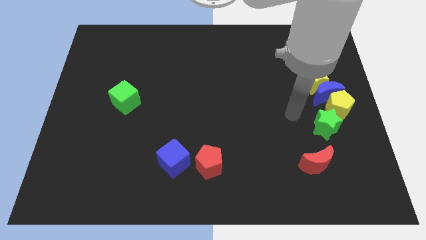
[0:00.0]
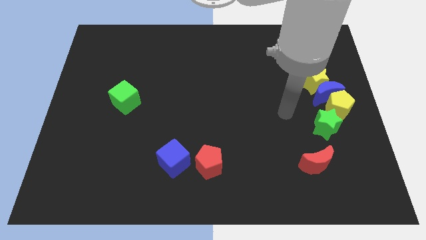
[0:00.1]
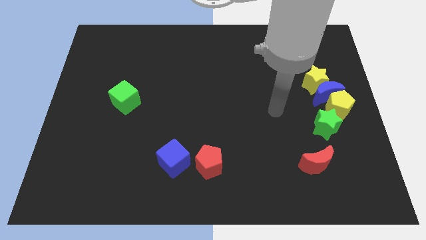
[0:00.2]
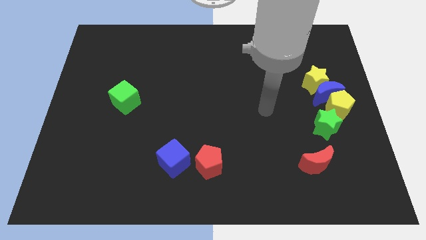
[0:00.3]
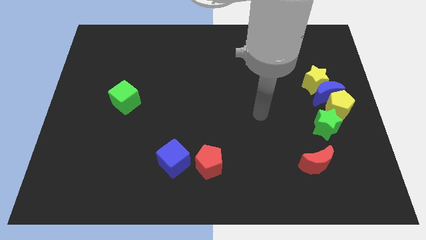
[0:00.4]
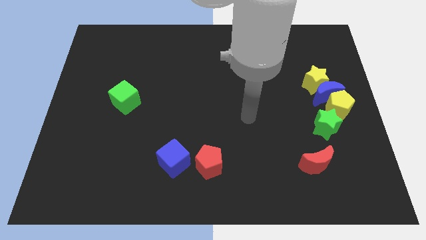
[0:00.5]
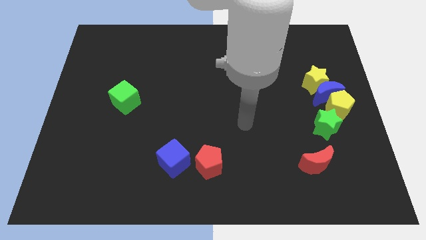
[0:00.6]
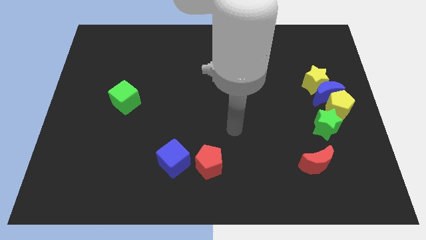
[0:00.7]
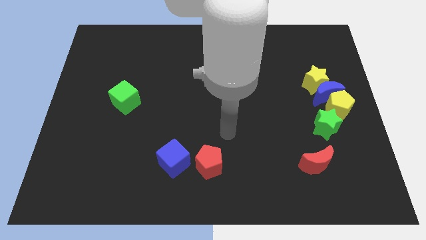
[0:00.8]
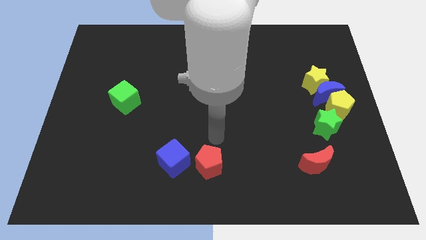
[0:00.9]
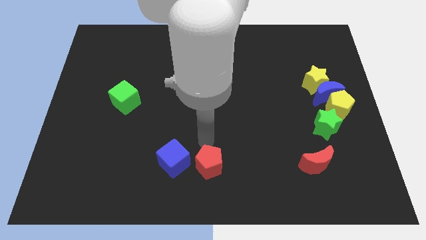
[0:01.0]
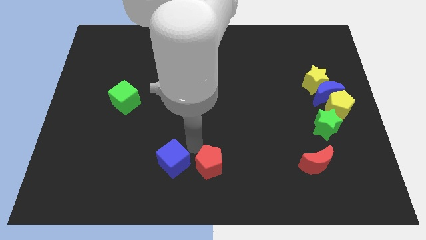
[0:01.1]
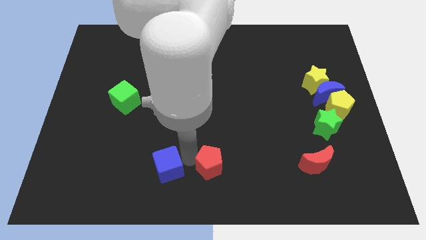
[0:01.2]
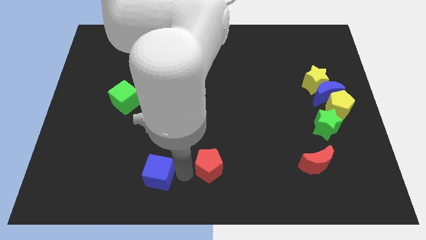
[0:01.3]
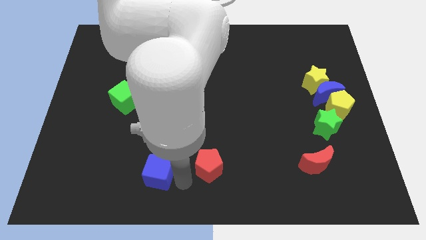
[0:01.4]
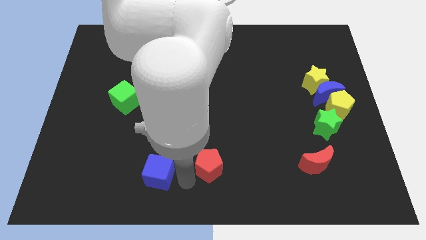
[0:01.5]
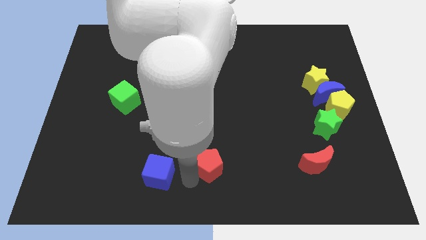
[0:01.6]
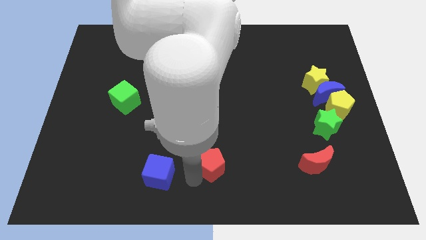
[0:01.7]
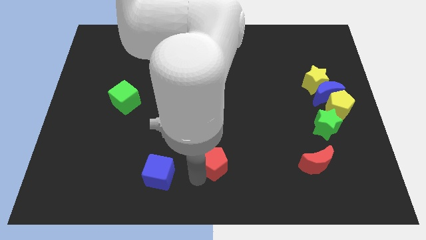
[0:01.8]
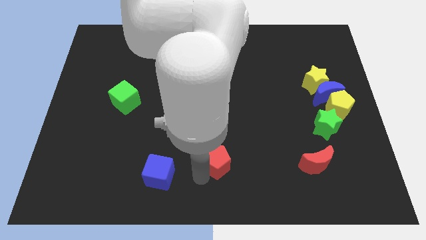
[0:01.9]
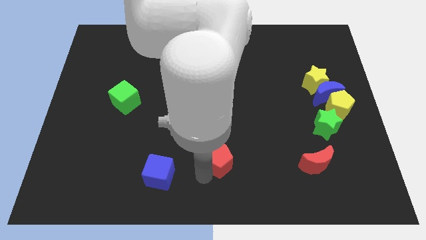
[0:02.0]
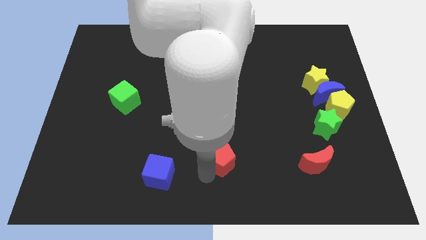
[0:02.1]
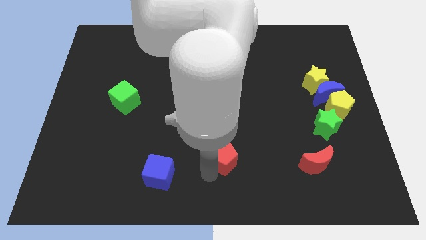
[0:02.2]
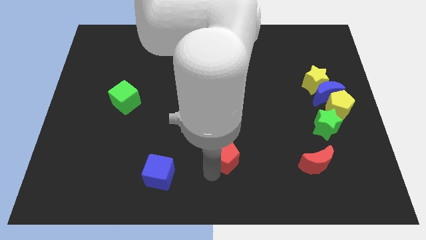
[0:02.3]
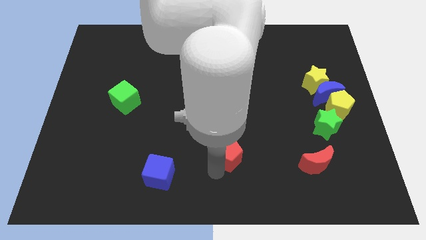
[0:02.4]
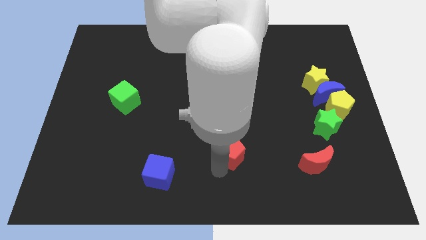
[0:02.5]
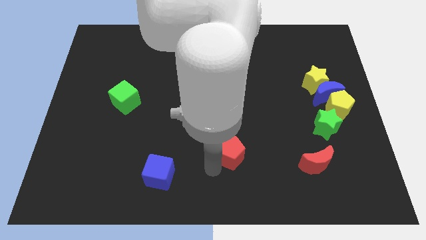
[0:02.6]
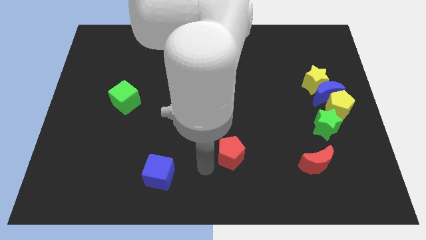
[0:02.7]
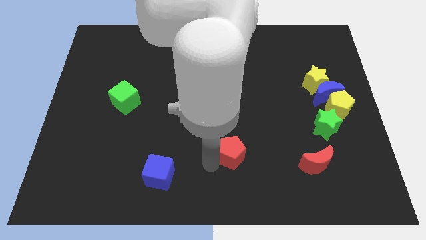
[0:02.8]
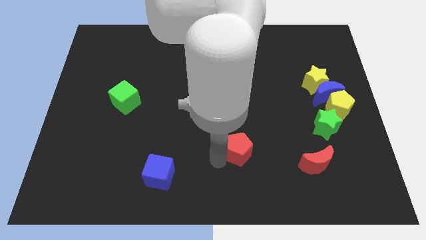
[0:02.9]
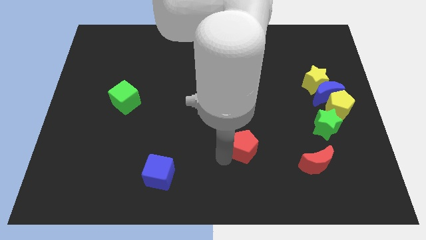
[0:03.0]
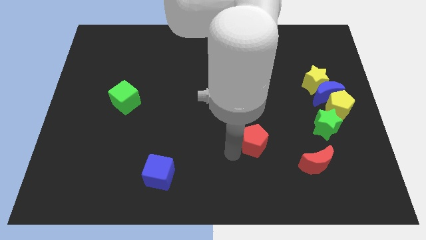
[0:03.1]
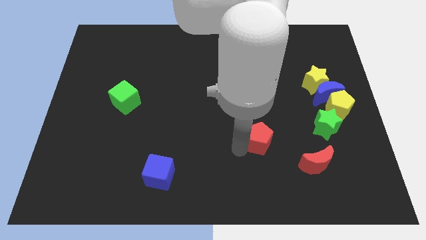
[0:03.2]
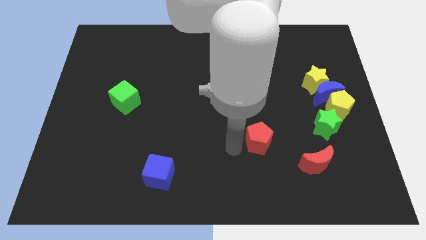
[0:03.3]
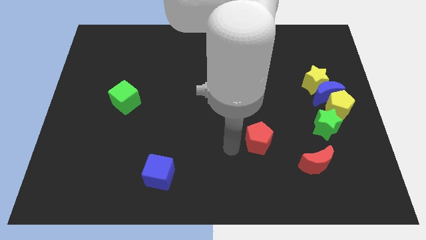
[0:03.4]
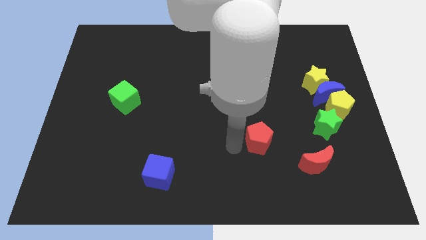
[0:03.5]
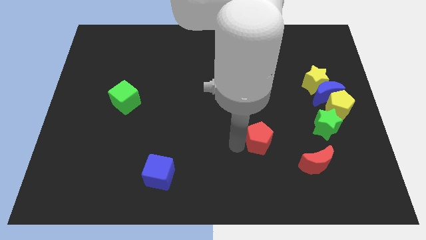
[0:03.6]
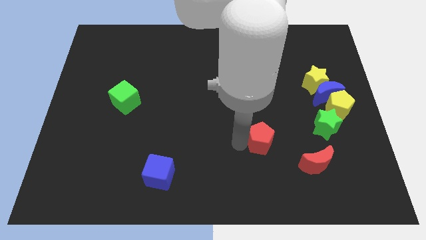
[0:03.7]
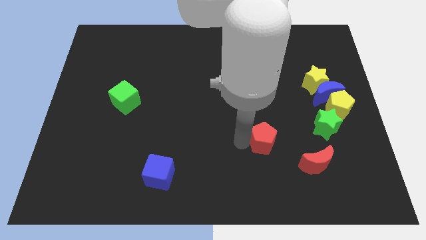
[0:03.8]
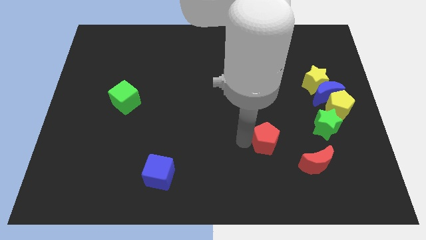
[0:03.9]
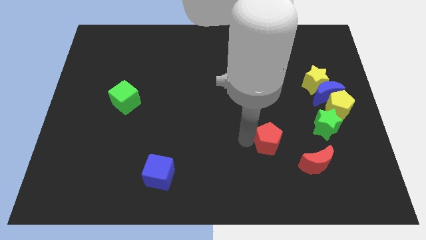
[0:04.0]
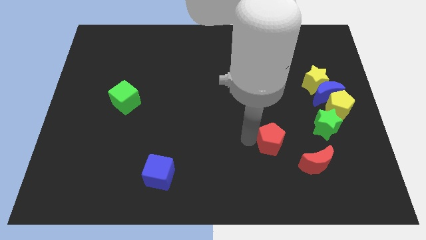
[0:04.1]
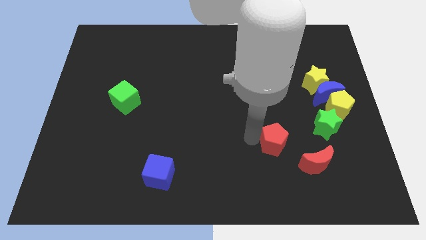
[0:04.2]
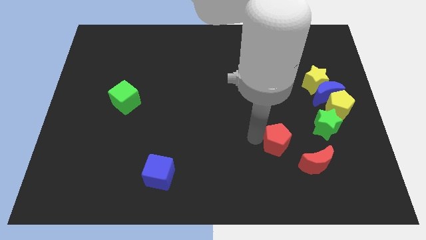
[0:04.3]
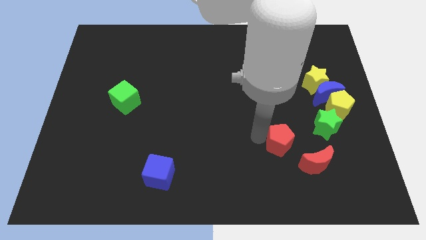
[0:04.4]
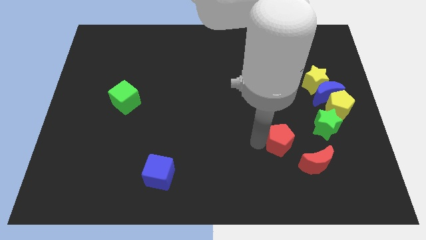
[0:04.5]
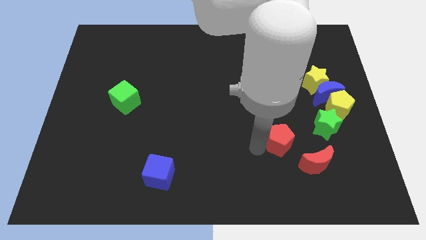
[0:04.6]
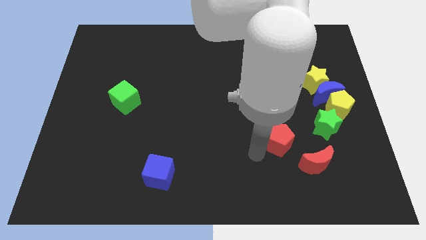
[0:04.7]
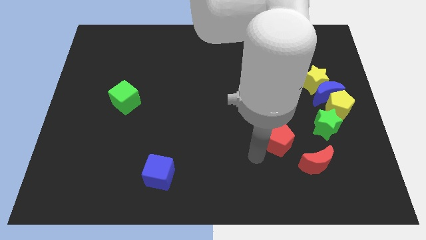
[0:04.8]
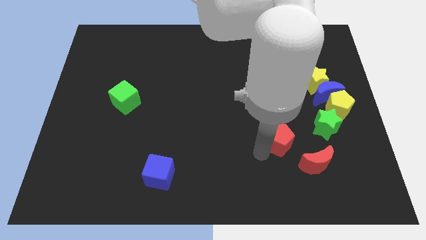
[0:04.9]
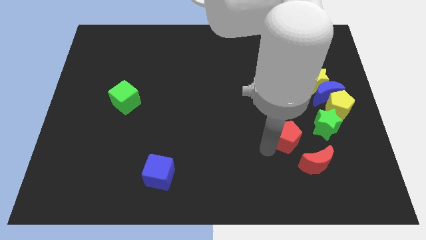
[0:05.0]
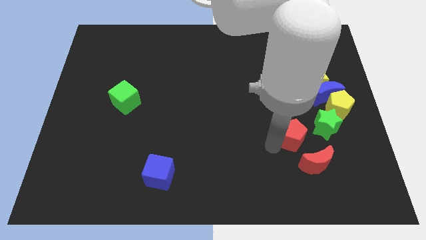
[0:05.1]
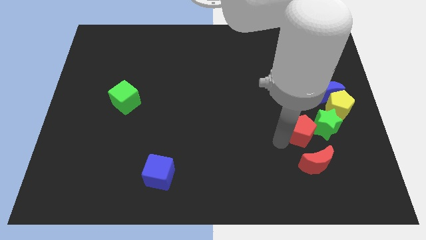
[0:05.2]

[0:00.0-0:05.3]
move the red pentagon close to the green star

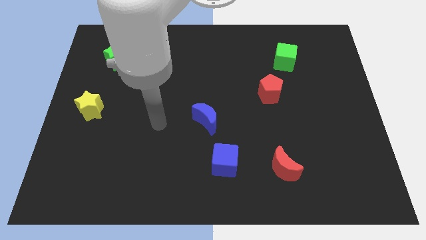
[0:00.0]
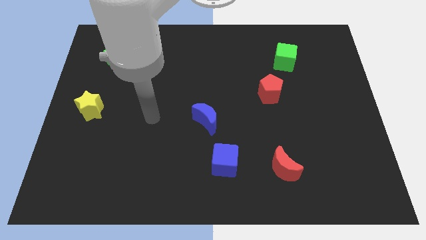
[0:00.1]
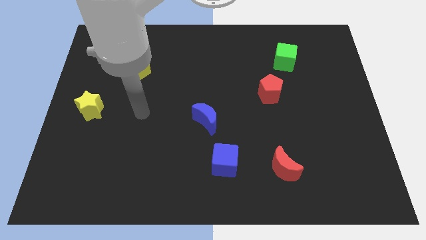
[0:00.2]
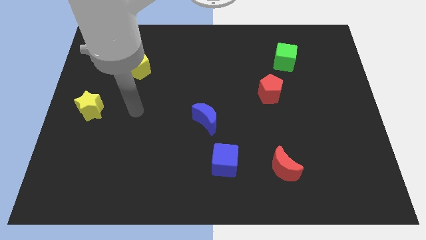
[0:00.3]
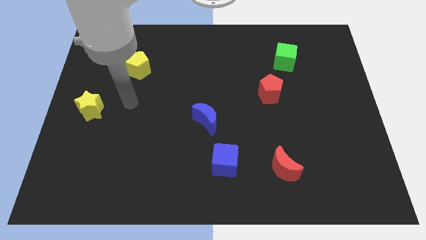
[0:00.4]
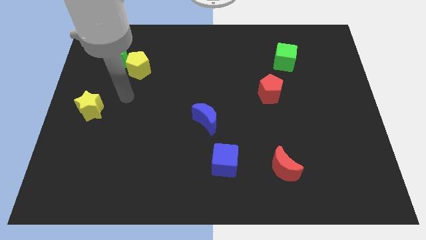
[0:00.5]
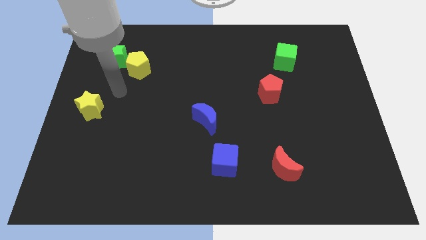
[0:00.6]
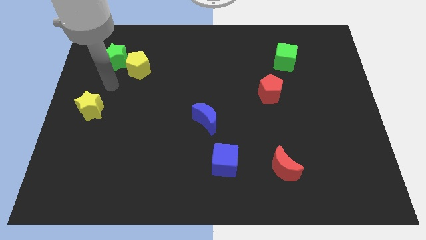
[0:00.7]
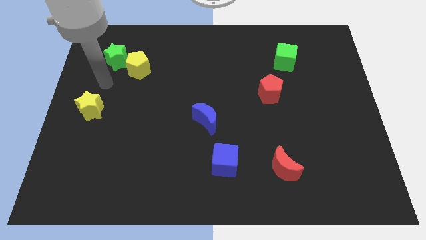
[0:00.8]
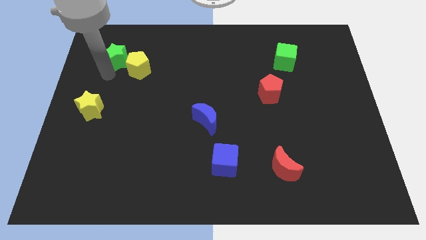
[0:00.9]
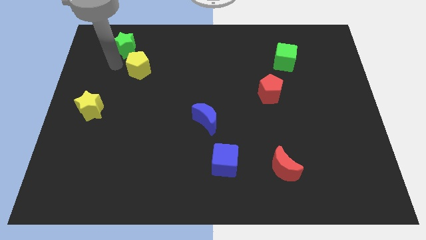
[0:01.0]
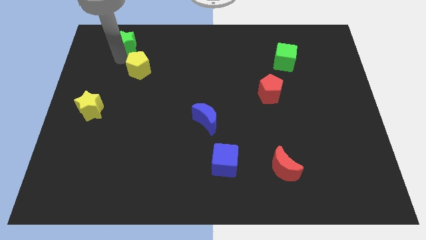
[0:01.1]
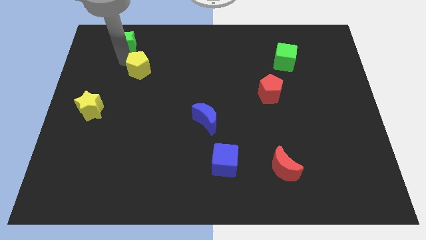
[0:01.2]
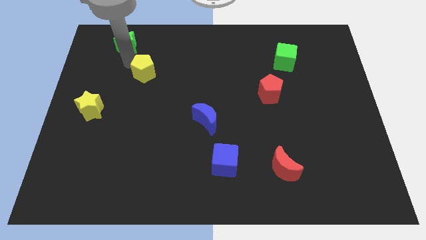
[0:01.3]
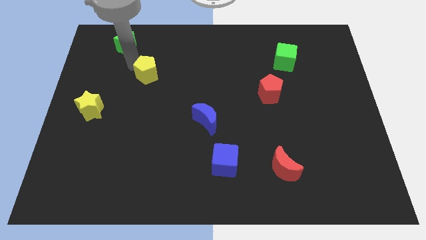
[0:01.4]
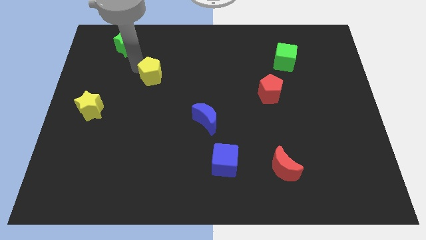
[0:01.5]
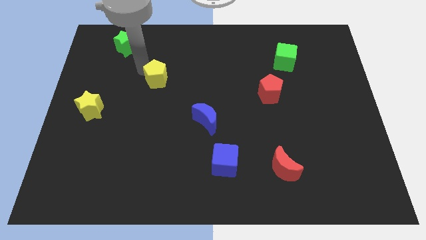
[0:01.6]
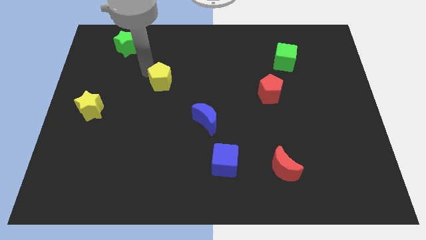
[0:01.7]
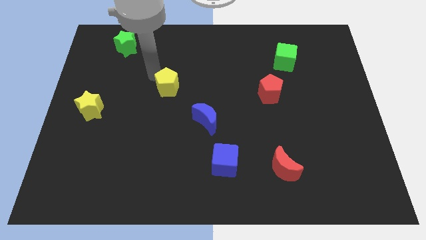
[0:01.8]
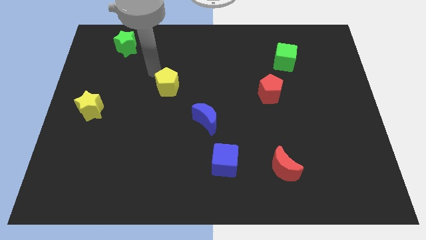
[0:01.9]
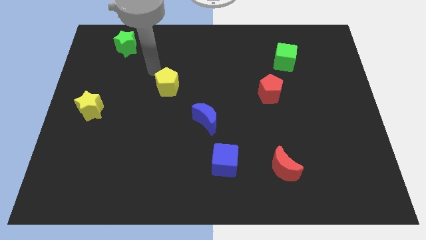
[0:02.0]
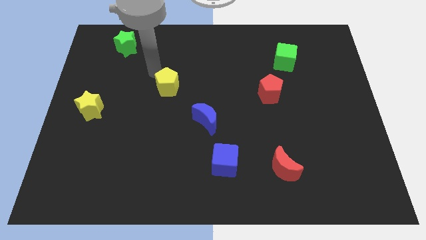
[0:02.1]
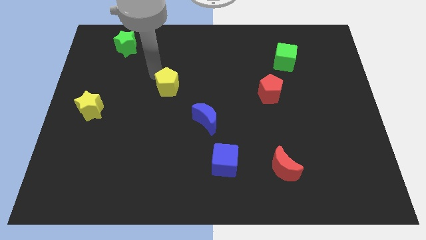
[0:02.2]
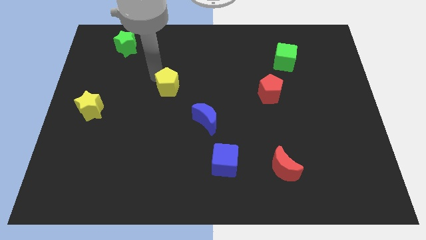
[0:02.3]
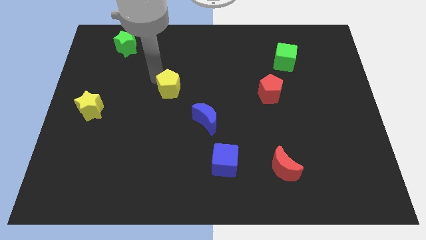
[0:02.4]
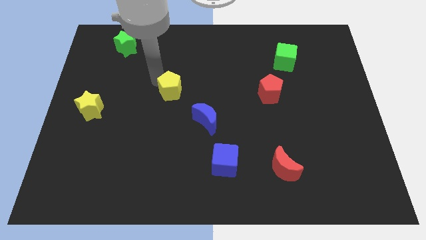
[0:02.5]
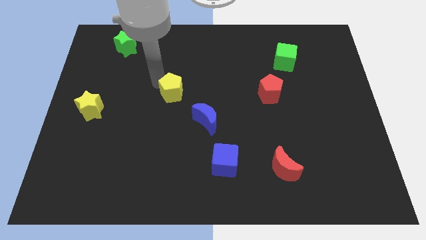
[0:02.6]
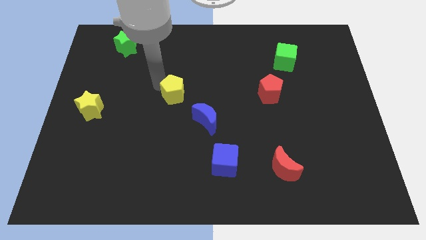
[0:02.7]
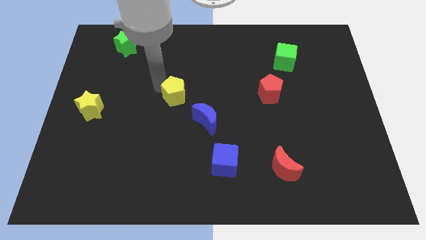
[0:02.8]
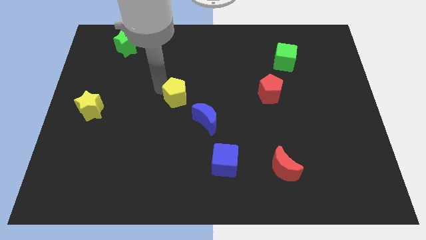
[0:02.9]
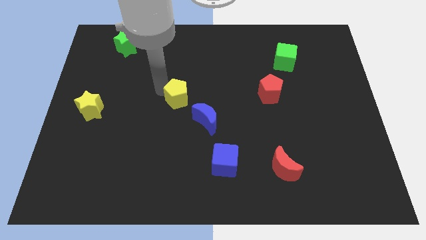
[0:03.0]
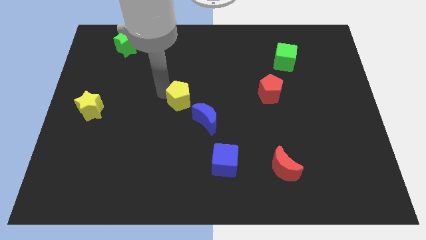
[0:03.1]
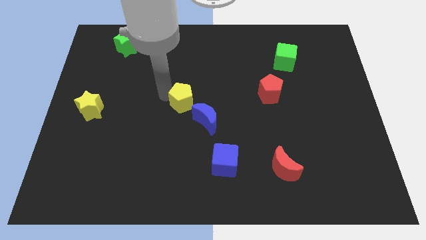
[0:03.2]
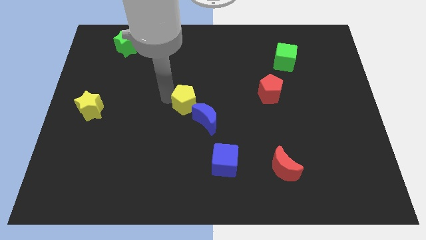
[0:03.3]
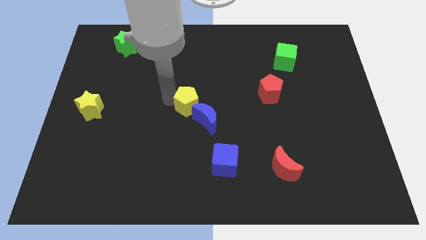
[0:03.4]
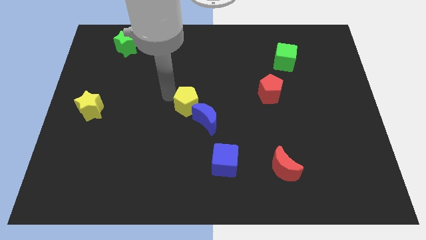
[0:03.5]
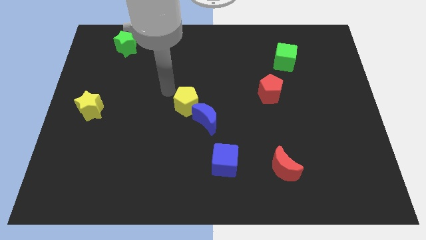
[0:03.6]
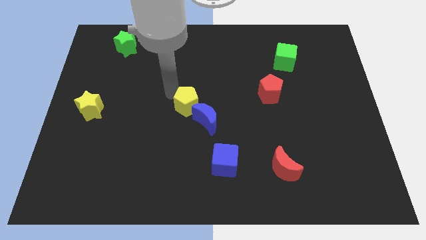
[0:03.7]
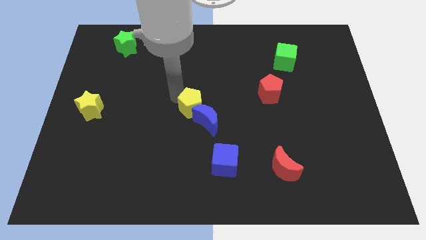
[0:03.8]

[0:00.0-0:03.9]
put the yellow pentagon to the blue moon
